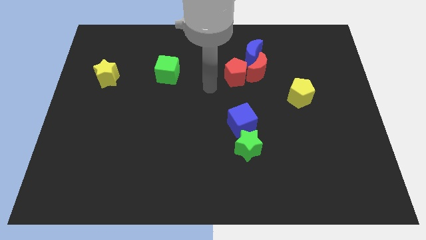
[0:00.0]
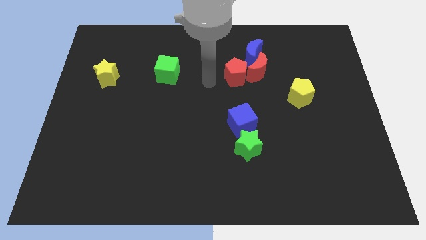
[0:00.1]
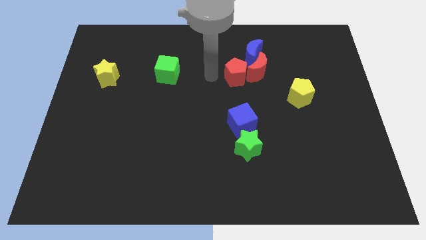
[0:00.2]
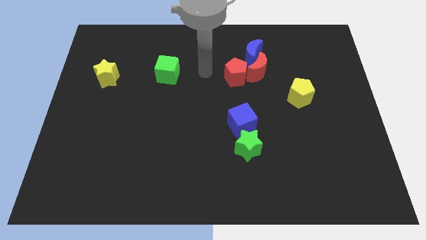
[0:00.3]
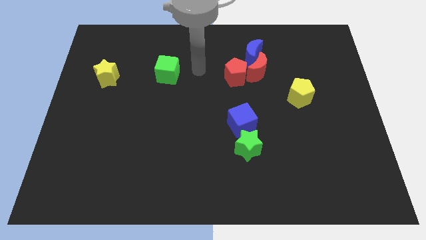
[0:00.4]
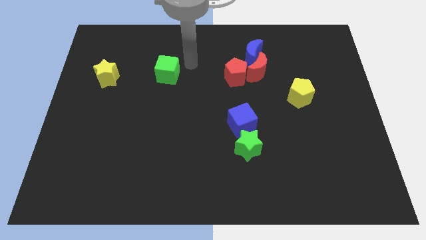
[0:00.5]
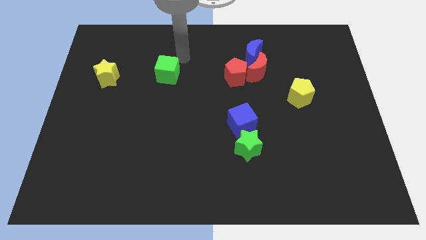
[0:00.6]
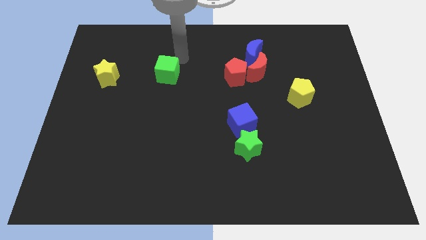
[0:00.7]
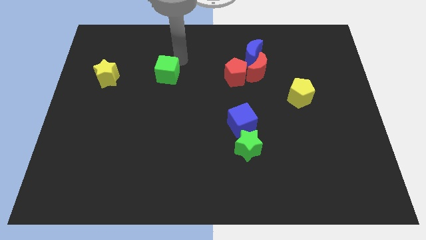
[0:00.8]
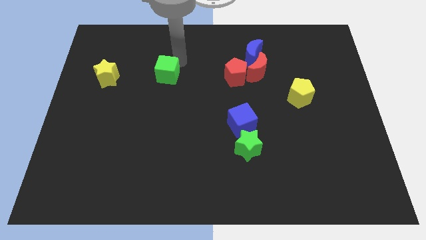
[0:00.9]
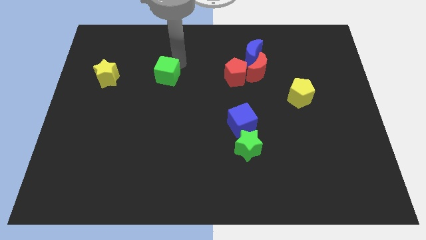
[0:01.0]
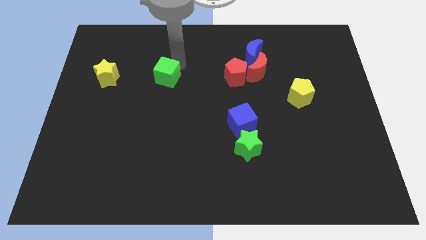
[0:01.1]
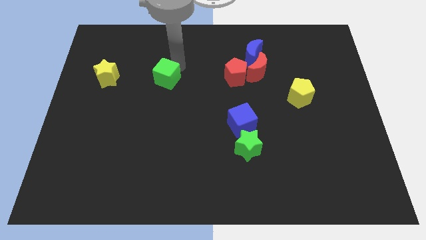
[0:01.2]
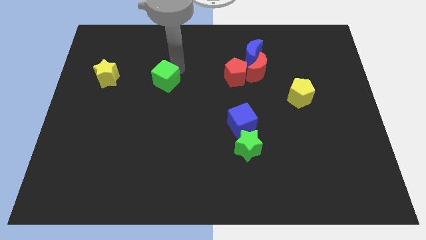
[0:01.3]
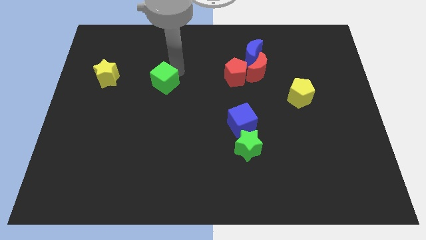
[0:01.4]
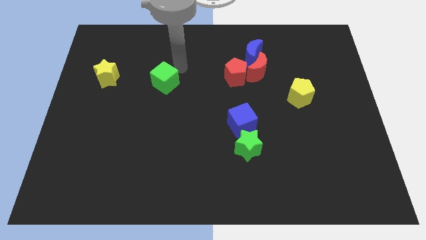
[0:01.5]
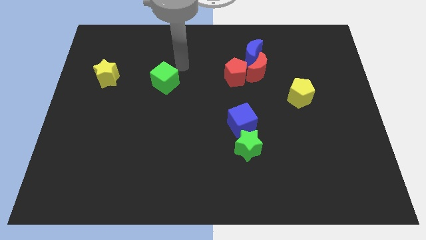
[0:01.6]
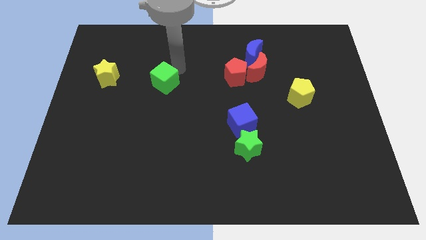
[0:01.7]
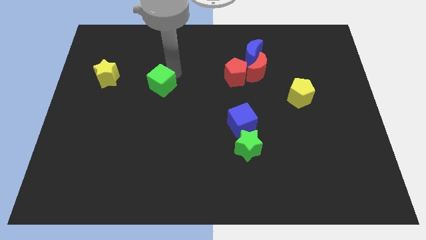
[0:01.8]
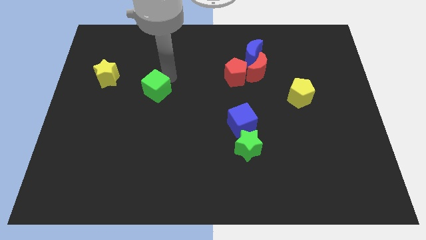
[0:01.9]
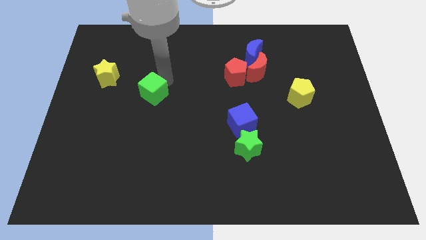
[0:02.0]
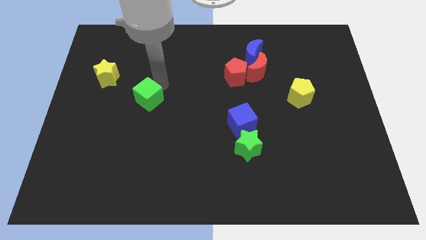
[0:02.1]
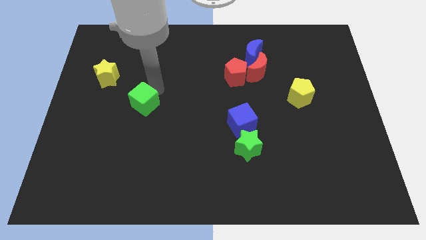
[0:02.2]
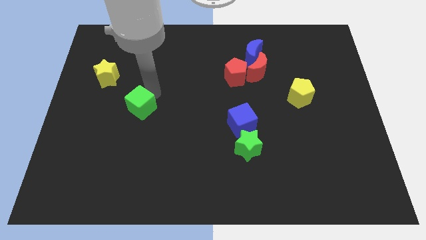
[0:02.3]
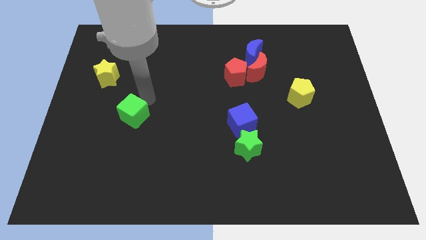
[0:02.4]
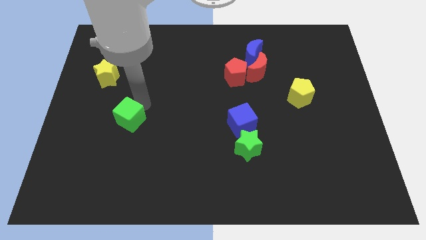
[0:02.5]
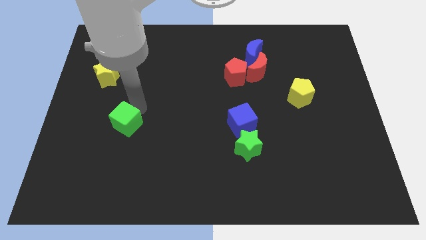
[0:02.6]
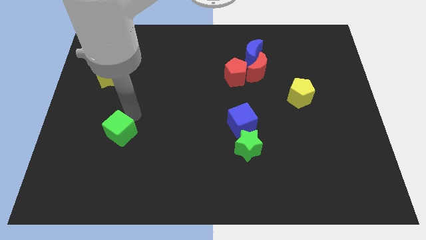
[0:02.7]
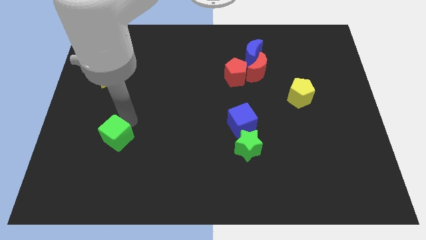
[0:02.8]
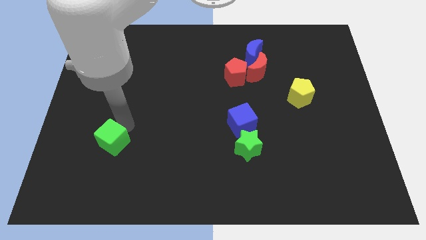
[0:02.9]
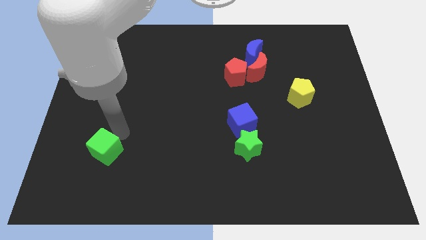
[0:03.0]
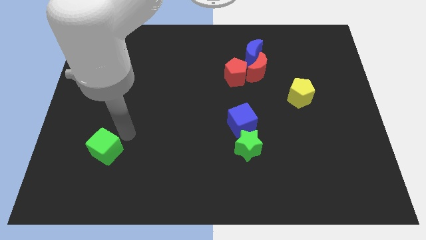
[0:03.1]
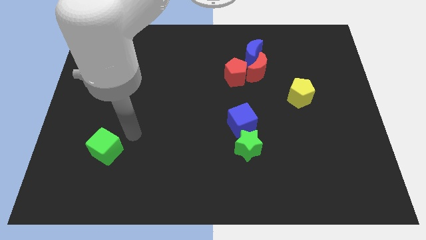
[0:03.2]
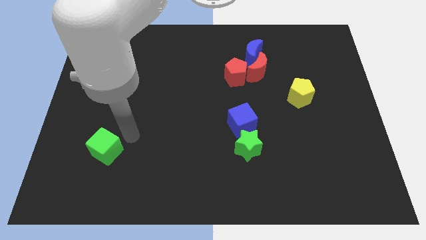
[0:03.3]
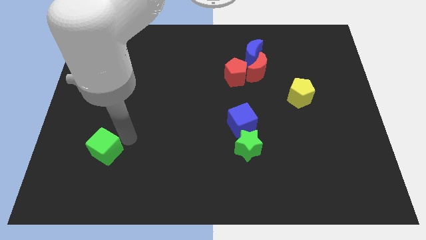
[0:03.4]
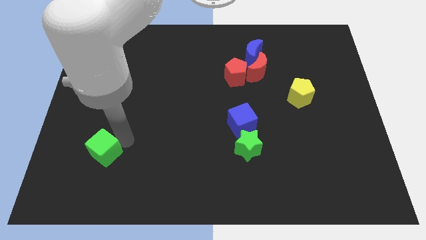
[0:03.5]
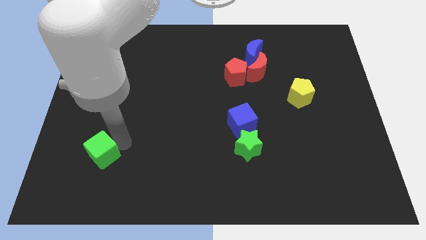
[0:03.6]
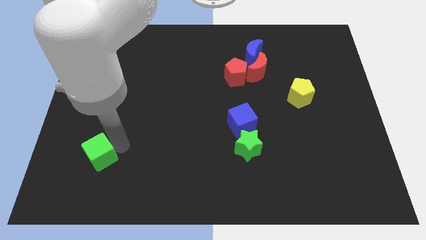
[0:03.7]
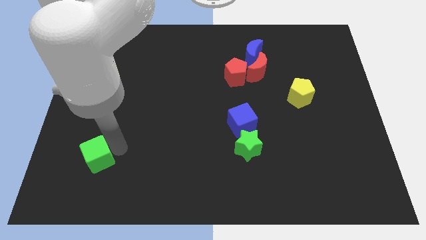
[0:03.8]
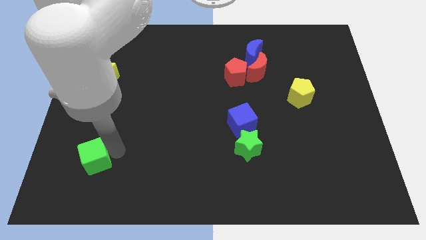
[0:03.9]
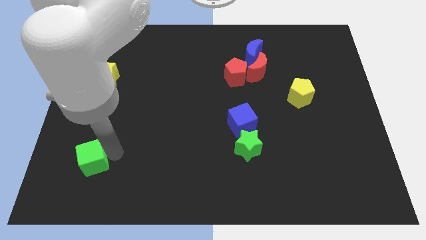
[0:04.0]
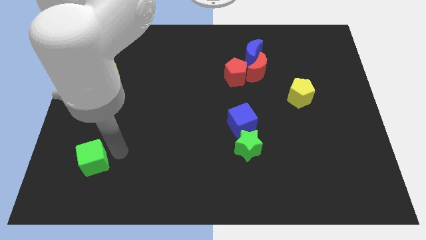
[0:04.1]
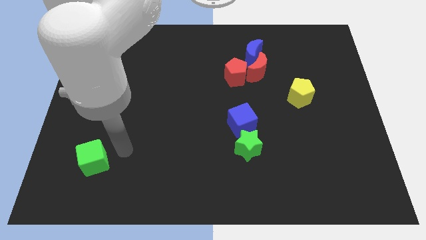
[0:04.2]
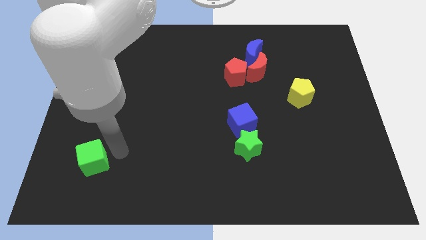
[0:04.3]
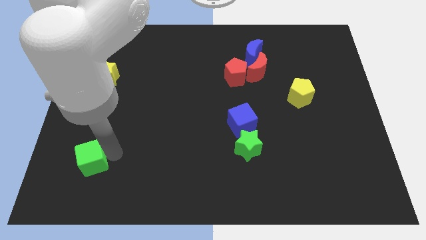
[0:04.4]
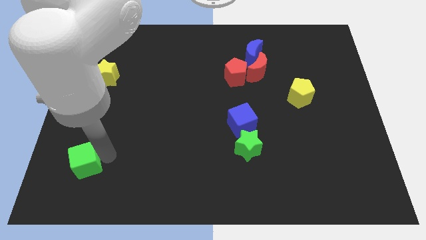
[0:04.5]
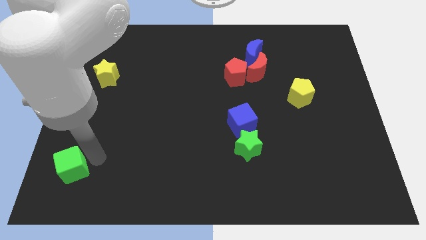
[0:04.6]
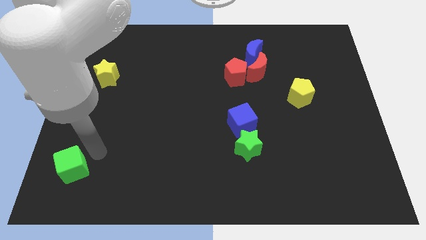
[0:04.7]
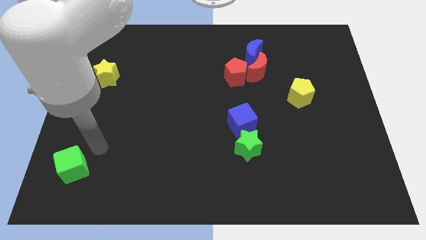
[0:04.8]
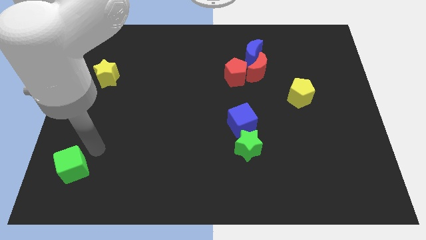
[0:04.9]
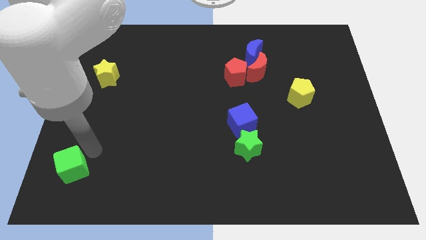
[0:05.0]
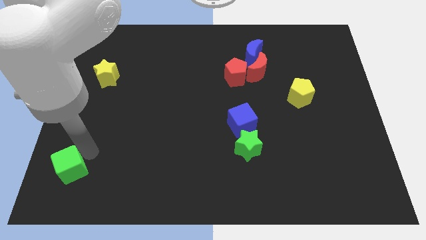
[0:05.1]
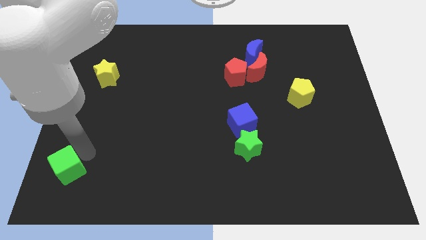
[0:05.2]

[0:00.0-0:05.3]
put the green cube to the lower left corner
